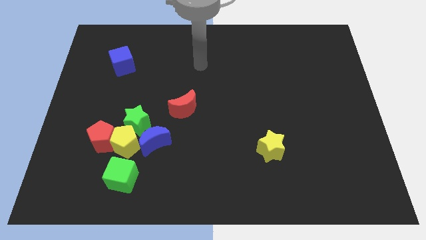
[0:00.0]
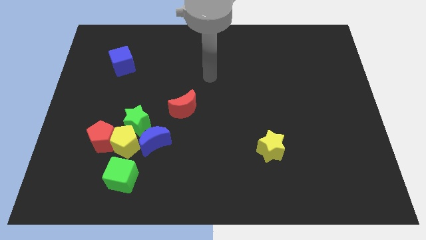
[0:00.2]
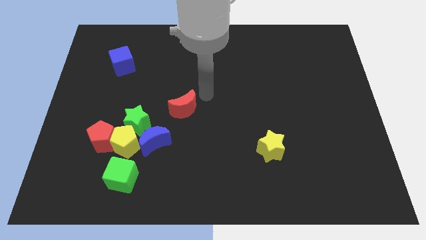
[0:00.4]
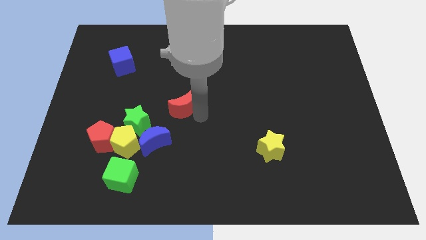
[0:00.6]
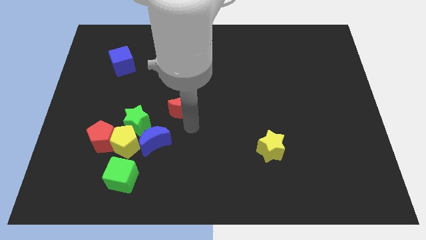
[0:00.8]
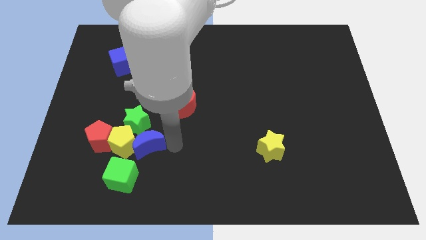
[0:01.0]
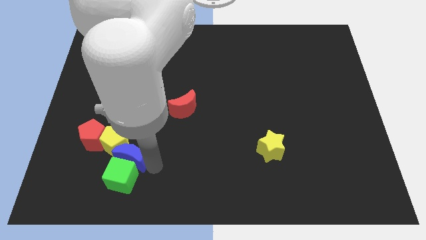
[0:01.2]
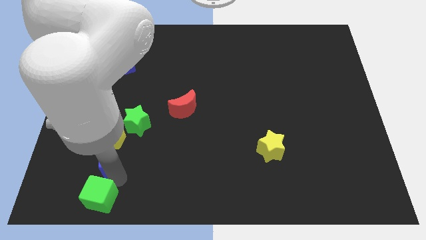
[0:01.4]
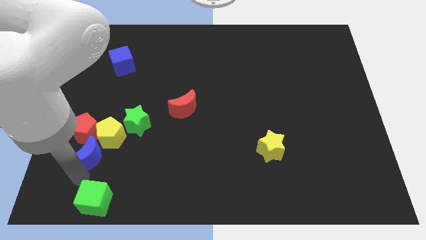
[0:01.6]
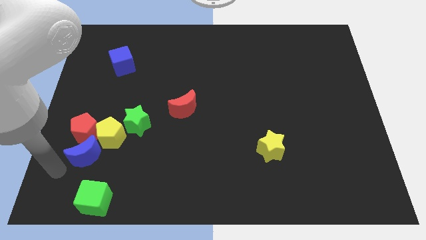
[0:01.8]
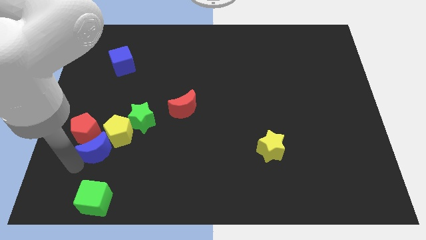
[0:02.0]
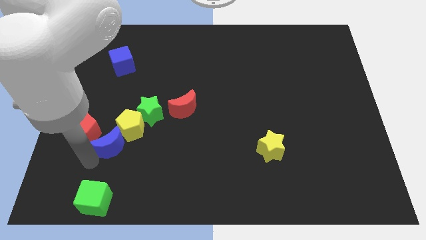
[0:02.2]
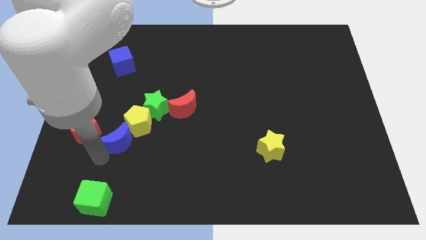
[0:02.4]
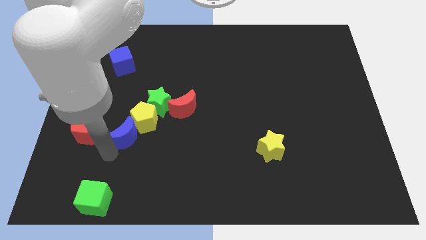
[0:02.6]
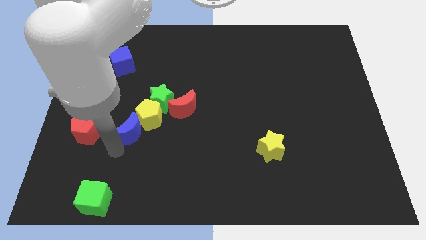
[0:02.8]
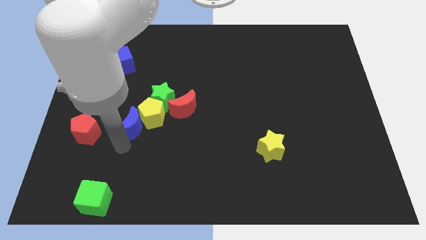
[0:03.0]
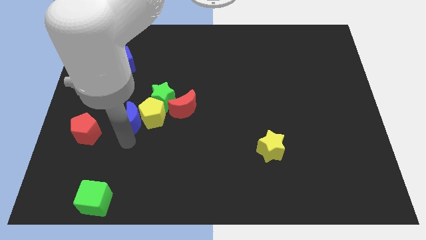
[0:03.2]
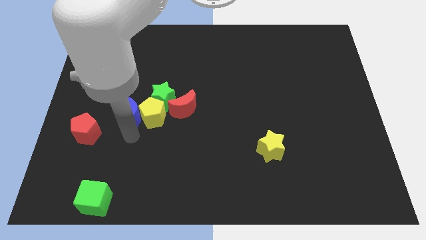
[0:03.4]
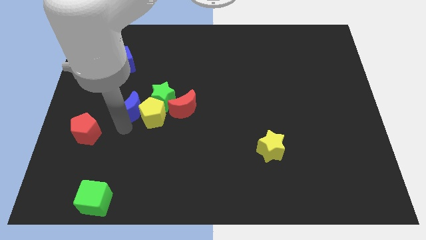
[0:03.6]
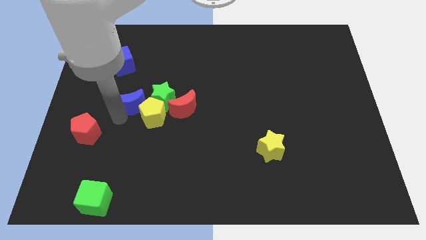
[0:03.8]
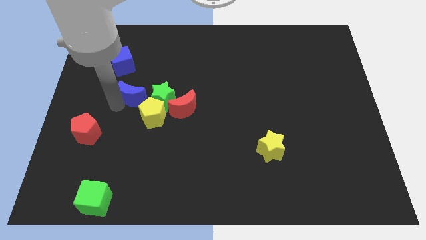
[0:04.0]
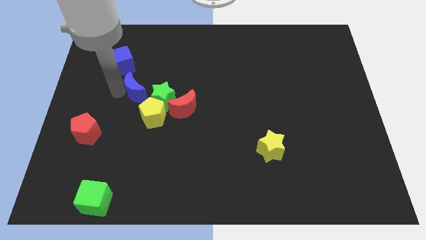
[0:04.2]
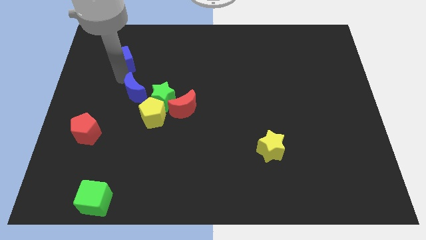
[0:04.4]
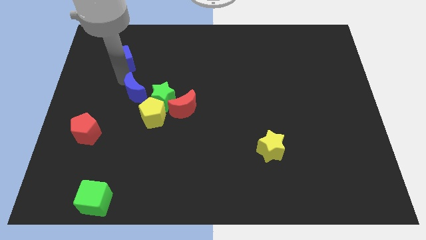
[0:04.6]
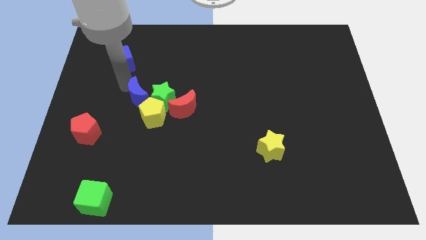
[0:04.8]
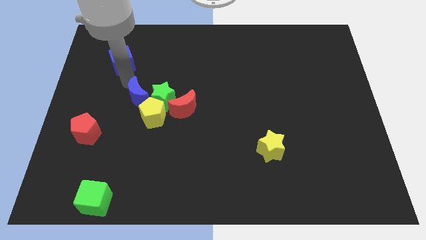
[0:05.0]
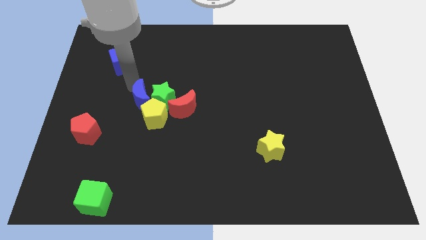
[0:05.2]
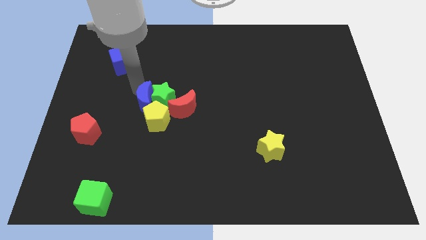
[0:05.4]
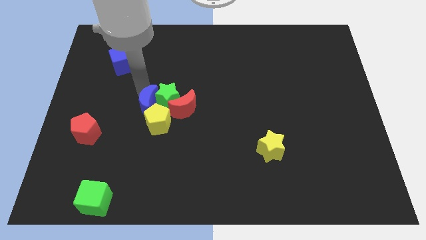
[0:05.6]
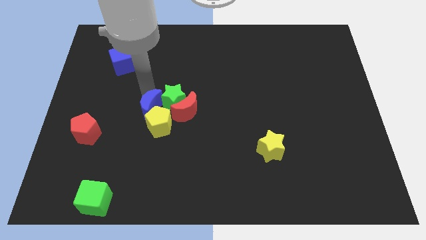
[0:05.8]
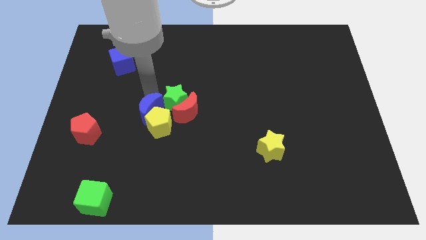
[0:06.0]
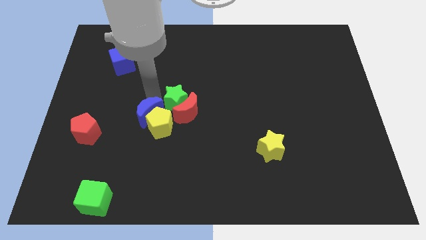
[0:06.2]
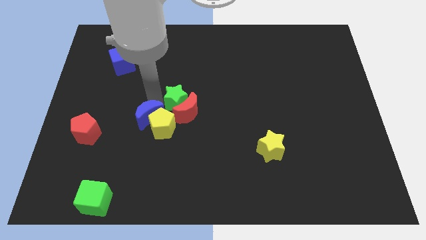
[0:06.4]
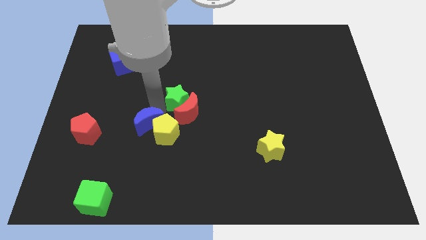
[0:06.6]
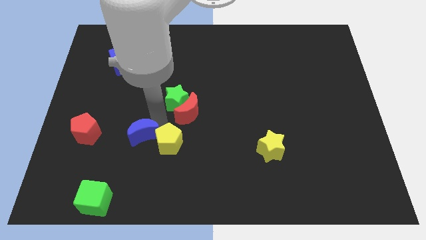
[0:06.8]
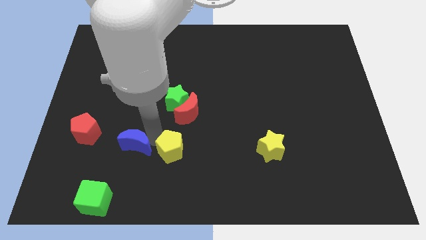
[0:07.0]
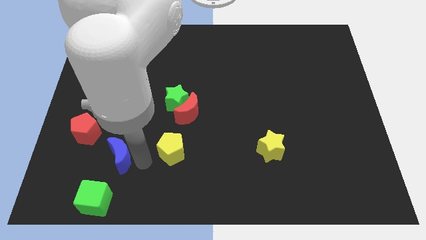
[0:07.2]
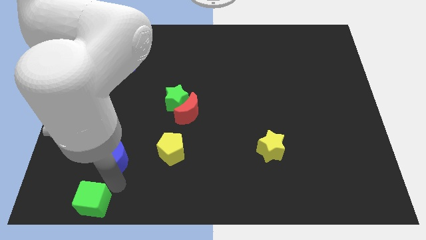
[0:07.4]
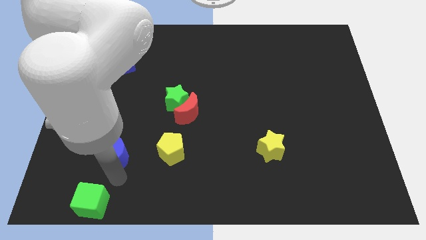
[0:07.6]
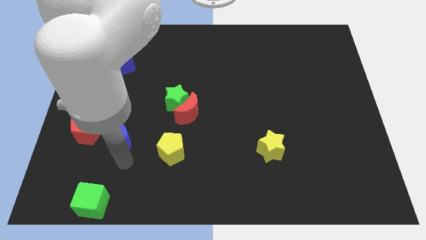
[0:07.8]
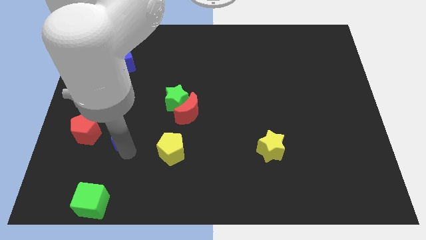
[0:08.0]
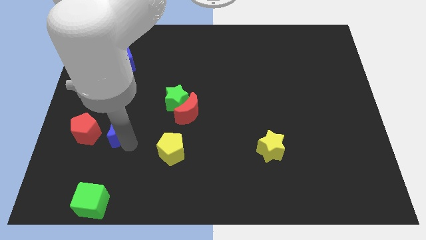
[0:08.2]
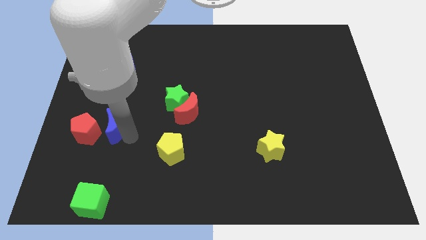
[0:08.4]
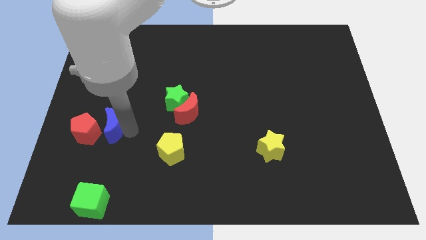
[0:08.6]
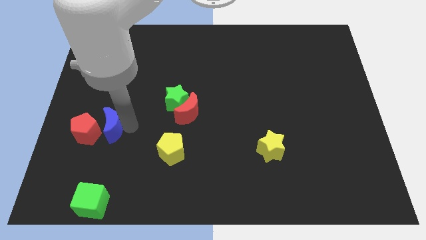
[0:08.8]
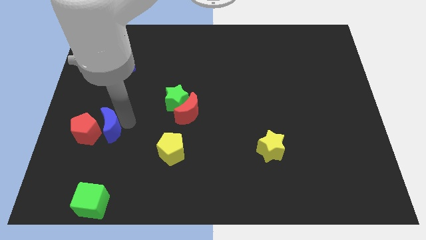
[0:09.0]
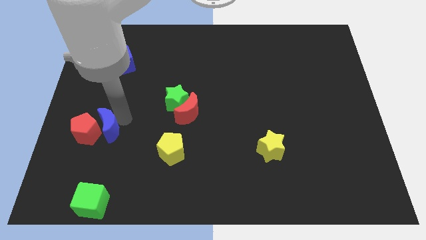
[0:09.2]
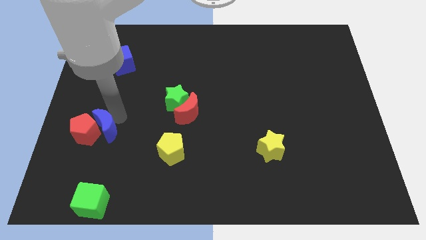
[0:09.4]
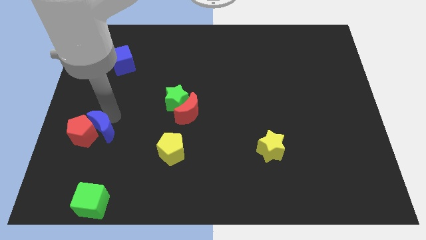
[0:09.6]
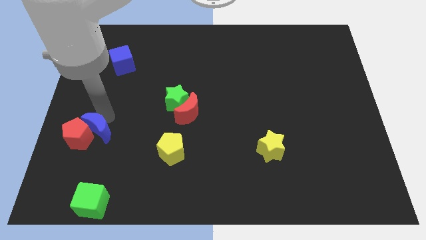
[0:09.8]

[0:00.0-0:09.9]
slide the blue moon to the top side of the red pentagon

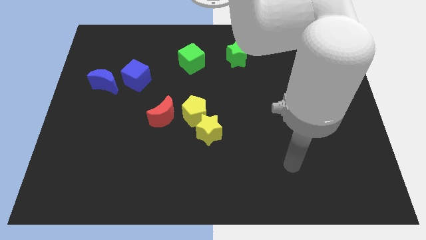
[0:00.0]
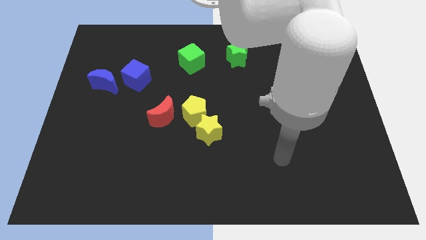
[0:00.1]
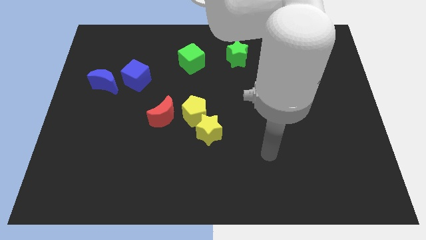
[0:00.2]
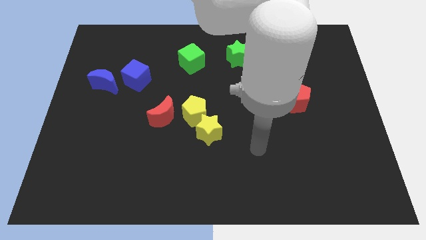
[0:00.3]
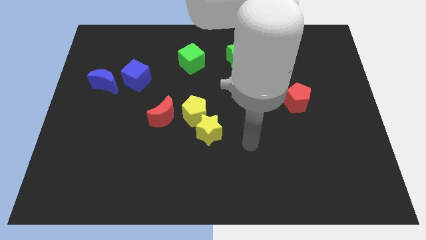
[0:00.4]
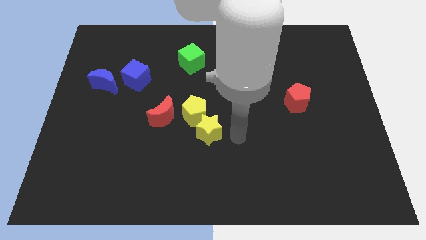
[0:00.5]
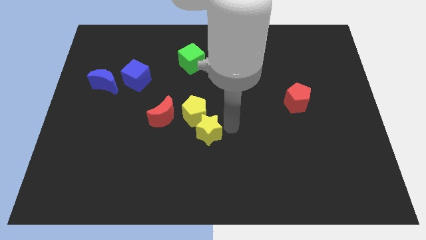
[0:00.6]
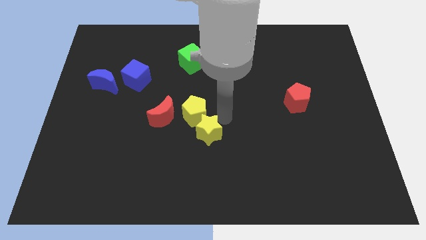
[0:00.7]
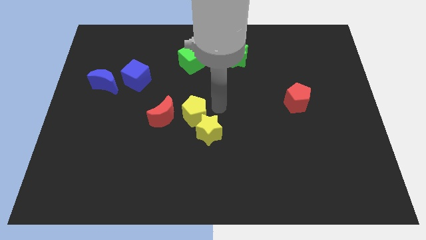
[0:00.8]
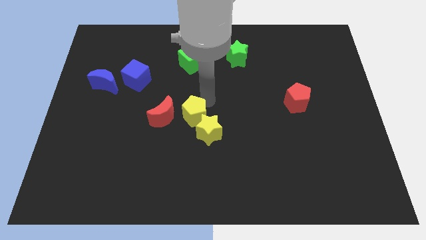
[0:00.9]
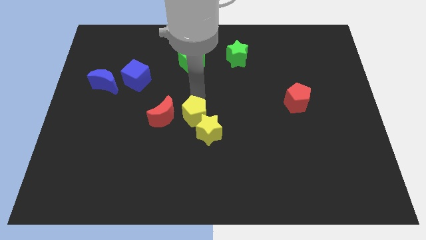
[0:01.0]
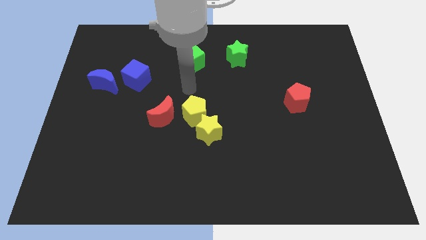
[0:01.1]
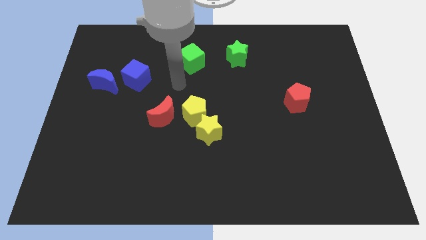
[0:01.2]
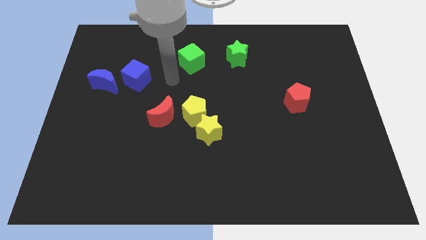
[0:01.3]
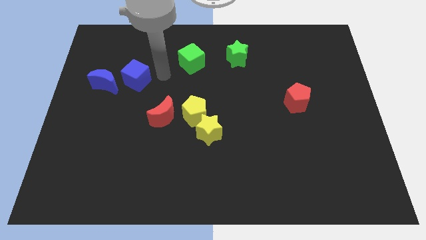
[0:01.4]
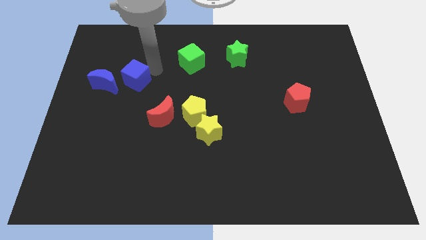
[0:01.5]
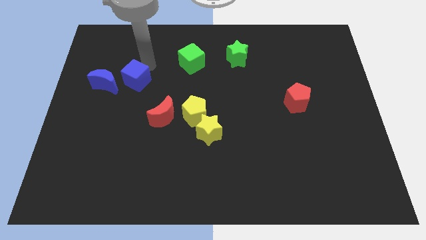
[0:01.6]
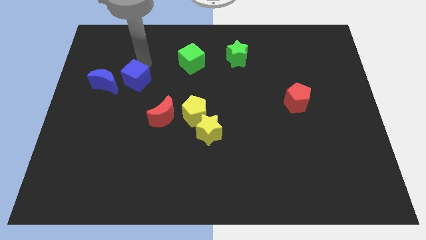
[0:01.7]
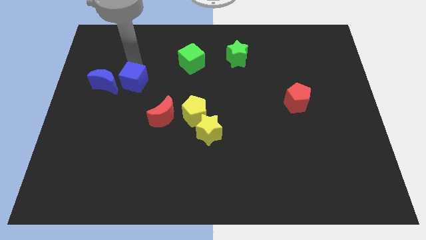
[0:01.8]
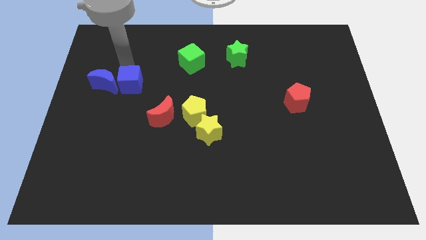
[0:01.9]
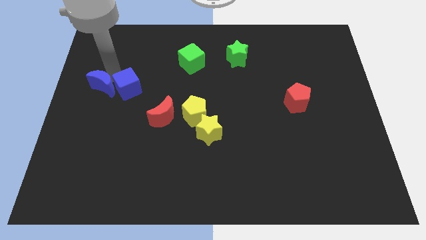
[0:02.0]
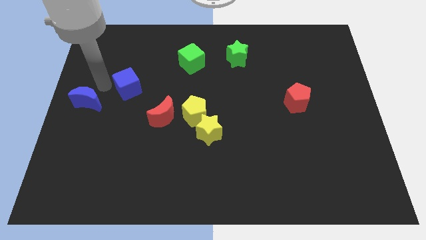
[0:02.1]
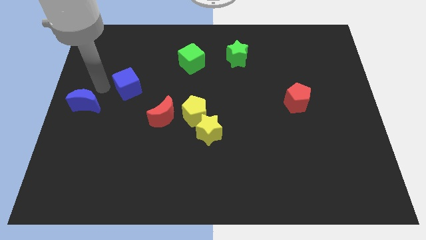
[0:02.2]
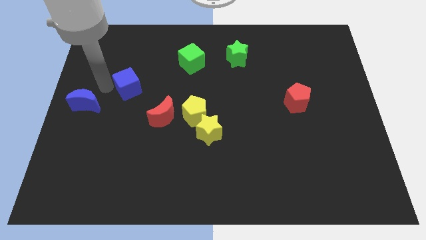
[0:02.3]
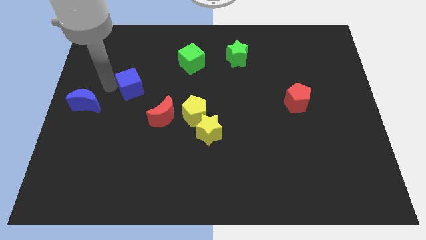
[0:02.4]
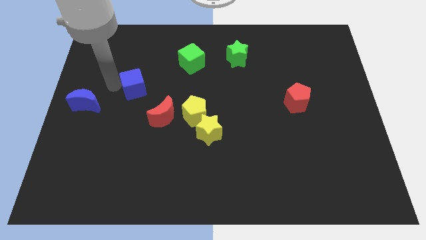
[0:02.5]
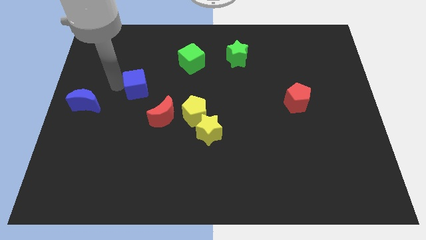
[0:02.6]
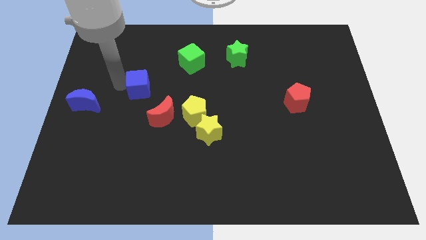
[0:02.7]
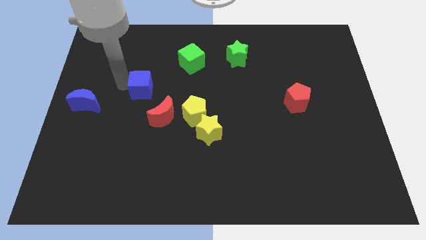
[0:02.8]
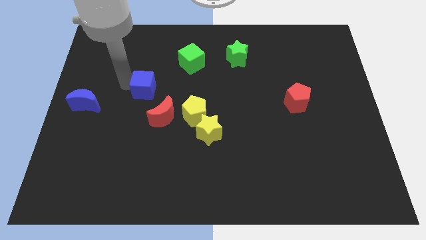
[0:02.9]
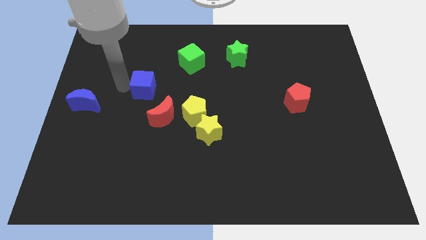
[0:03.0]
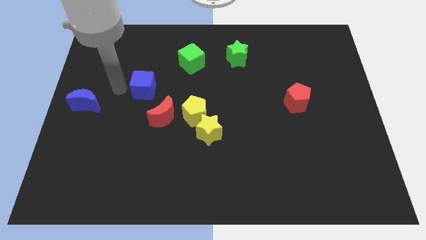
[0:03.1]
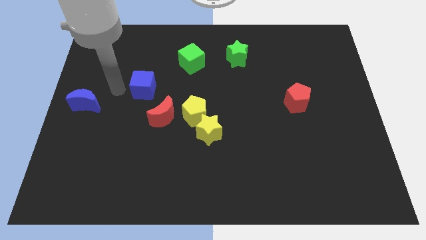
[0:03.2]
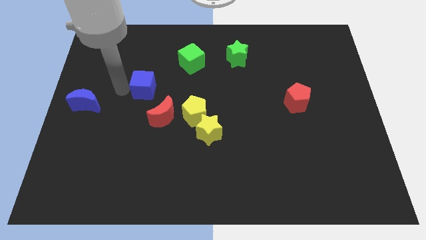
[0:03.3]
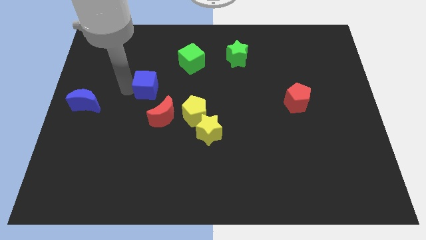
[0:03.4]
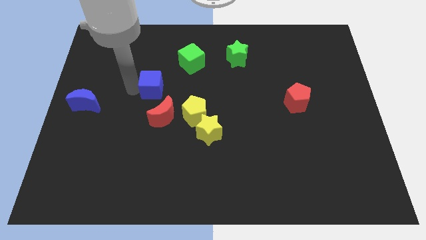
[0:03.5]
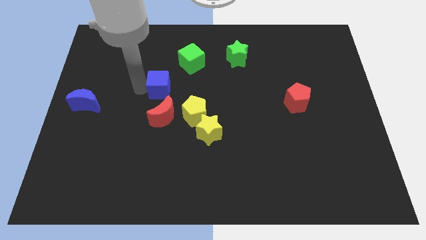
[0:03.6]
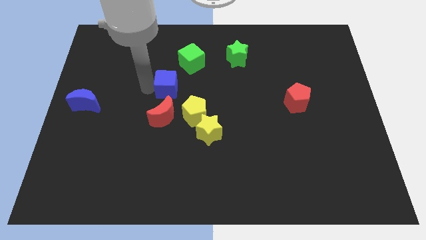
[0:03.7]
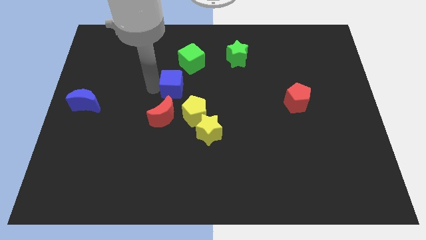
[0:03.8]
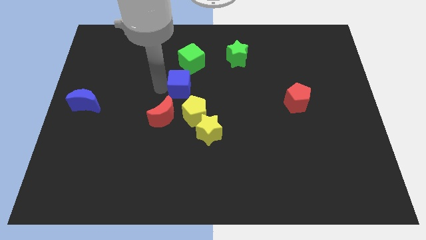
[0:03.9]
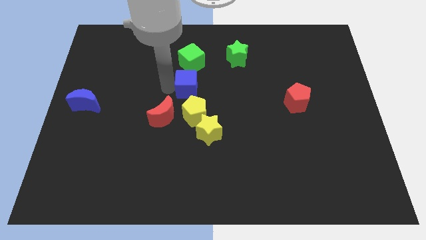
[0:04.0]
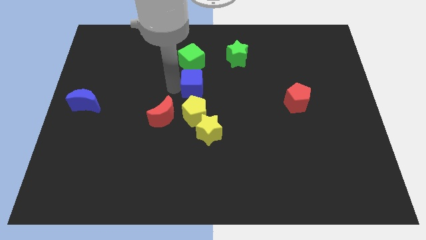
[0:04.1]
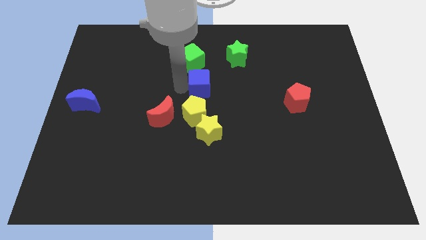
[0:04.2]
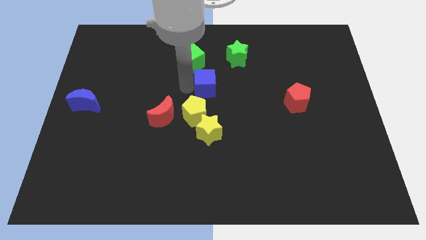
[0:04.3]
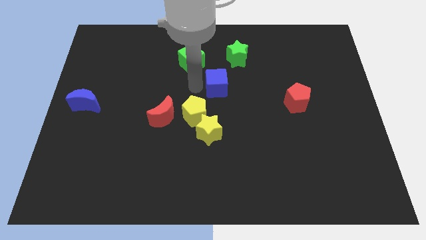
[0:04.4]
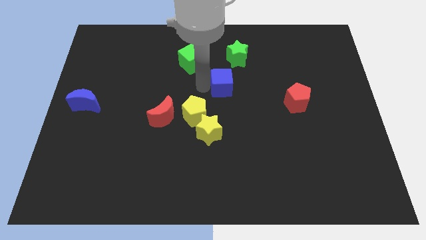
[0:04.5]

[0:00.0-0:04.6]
slide the blue cube below the green star
